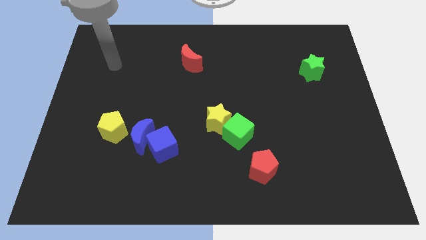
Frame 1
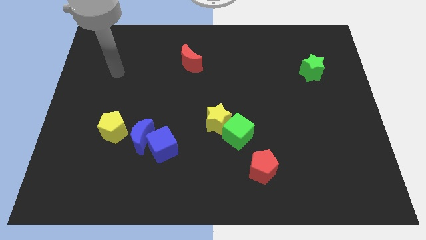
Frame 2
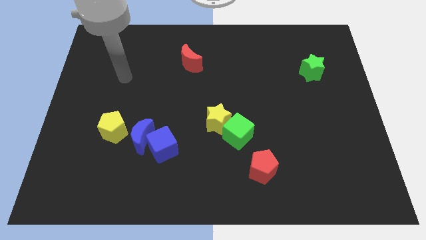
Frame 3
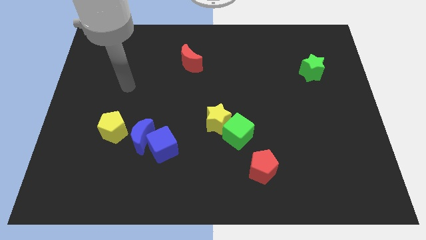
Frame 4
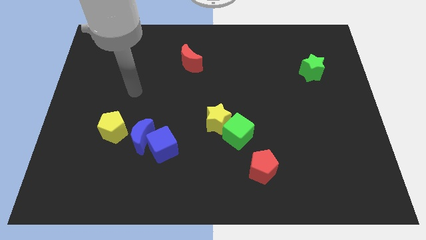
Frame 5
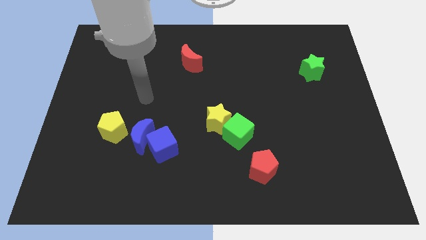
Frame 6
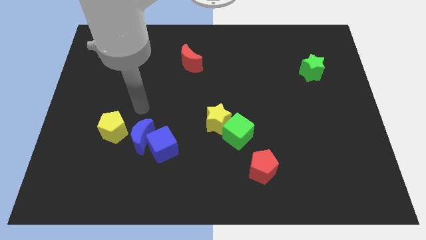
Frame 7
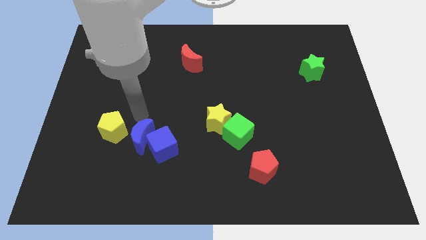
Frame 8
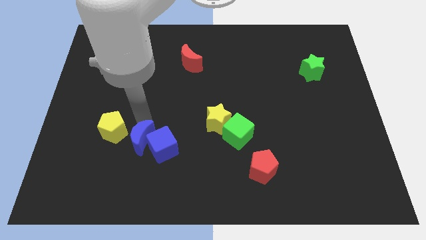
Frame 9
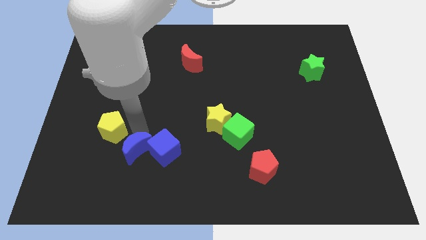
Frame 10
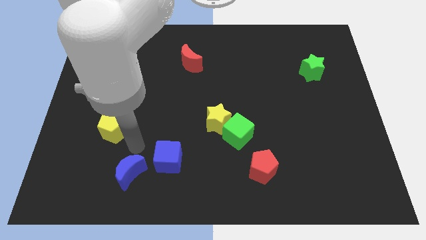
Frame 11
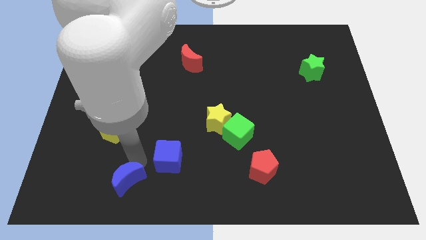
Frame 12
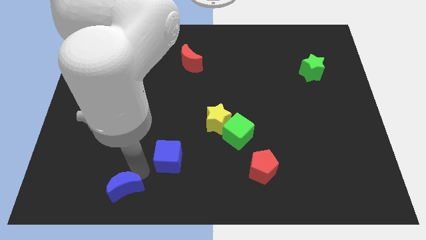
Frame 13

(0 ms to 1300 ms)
move the blue cube away from the blue moon

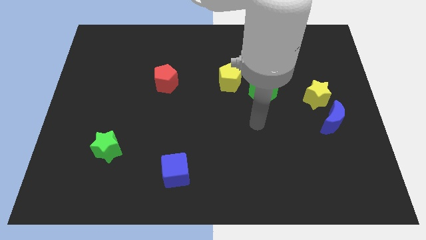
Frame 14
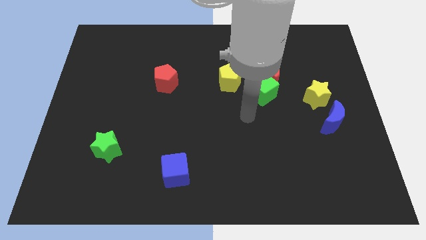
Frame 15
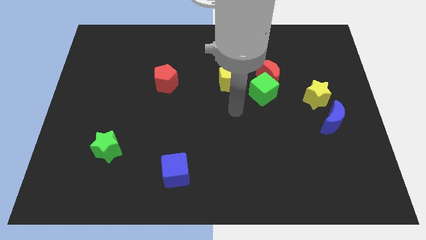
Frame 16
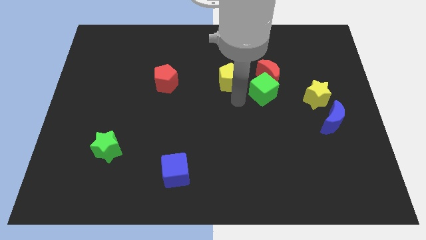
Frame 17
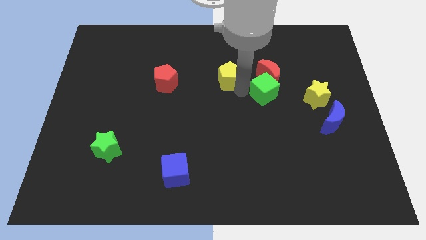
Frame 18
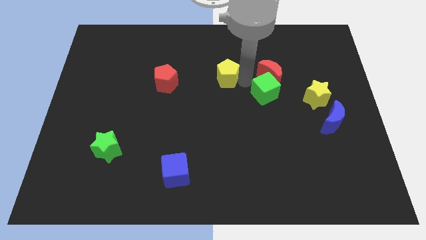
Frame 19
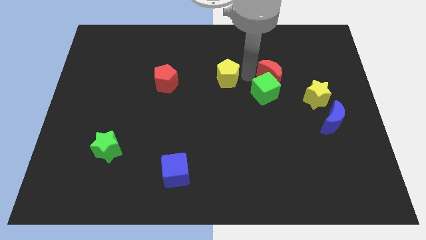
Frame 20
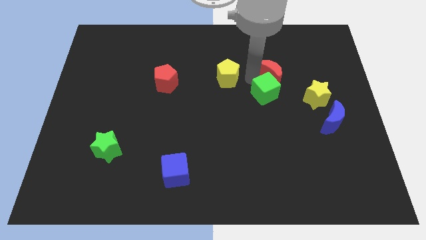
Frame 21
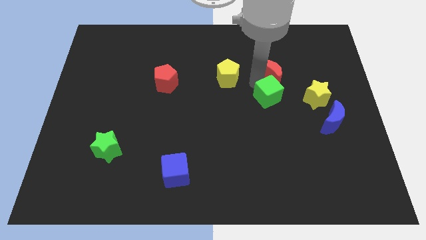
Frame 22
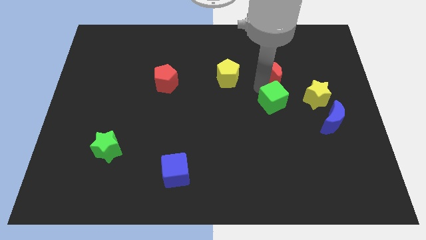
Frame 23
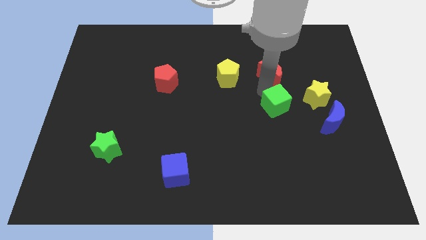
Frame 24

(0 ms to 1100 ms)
separate the green cube from the red moon and yellow pentagon

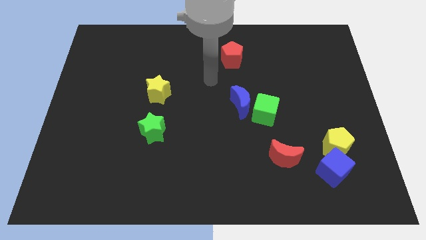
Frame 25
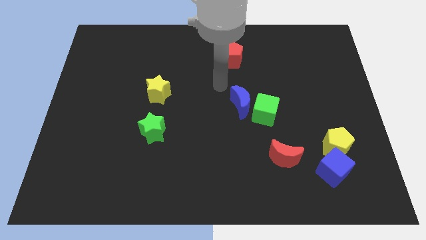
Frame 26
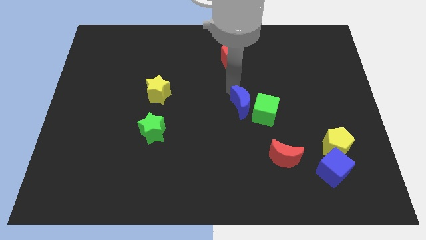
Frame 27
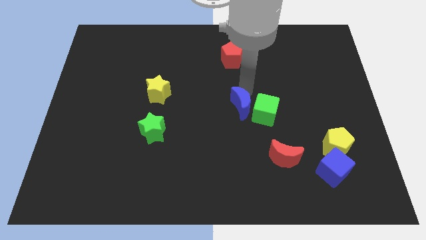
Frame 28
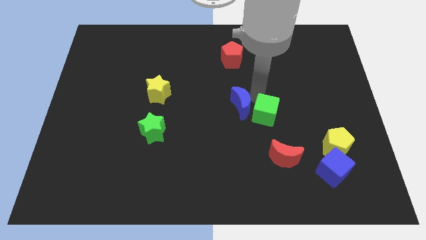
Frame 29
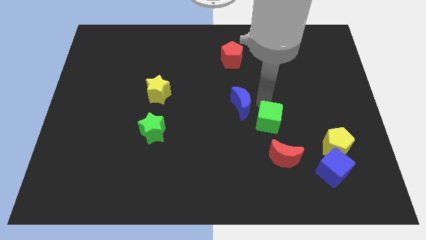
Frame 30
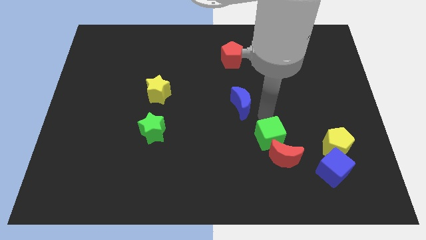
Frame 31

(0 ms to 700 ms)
separate the blue moon from the green cube

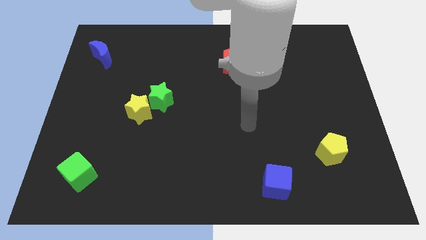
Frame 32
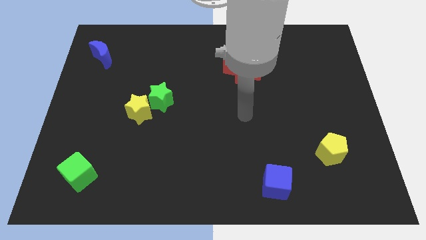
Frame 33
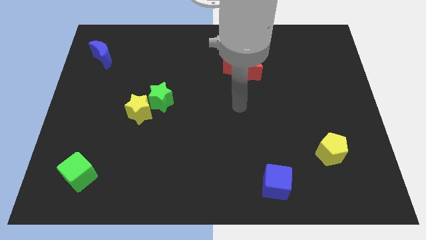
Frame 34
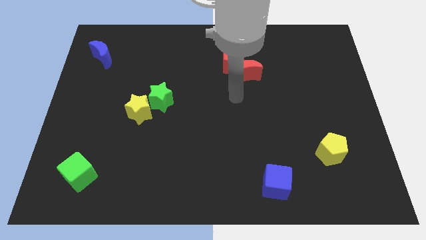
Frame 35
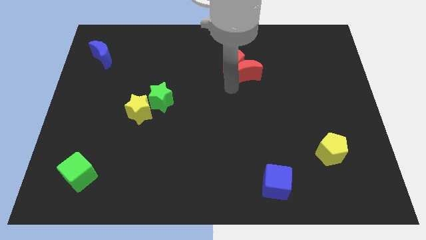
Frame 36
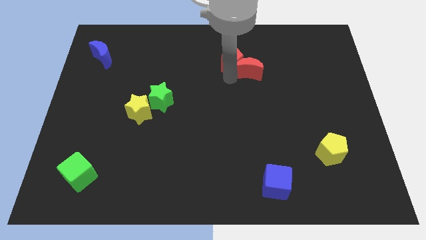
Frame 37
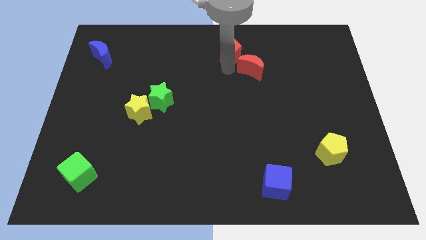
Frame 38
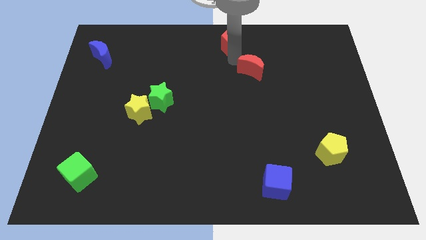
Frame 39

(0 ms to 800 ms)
separate the red moon from the red pentagon

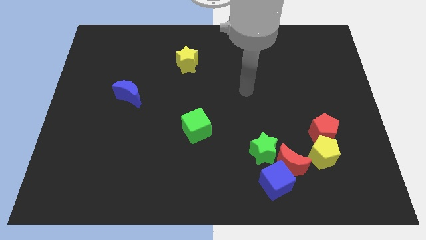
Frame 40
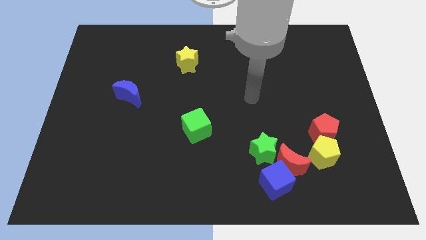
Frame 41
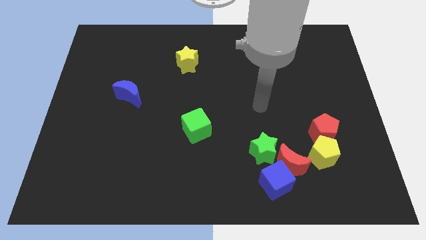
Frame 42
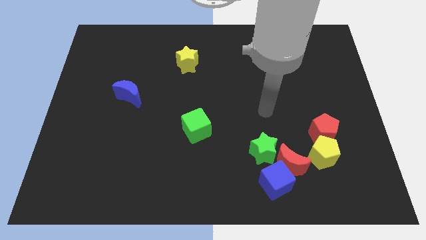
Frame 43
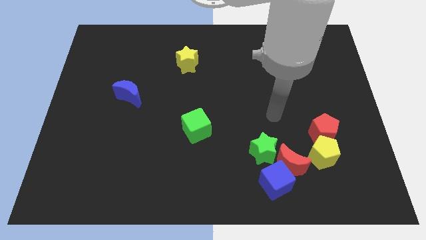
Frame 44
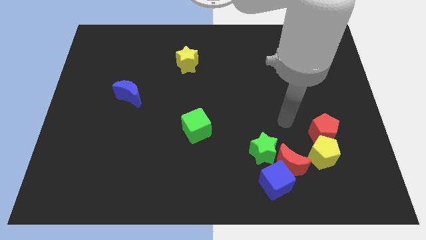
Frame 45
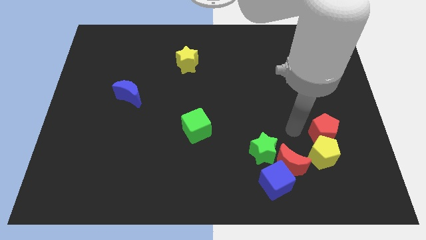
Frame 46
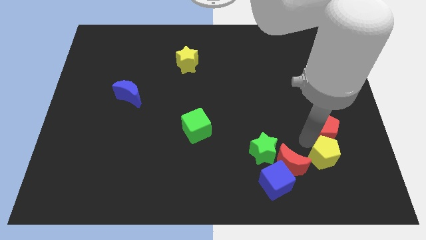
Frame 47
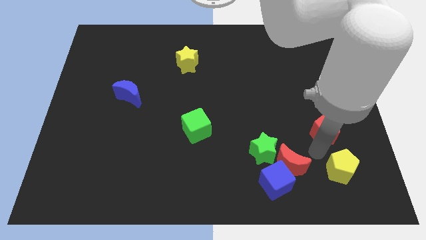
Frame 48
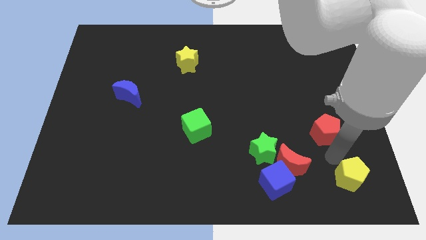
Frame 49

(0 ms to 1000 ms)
move the red pentagon away from the yellow pentagon

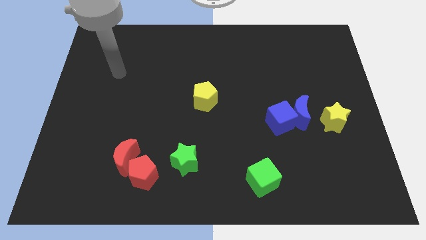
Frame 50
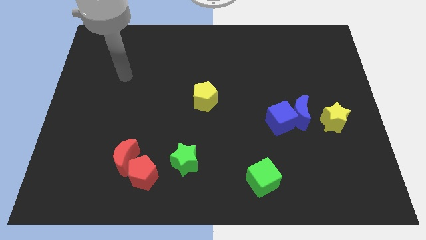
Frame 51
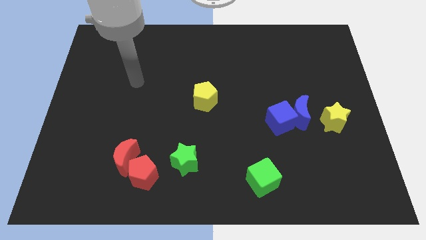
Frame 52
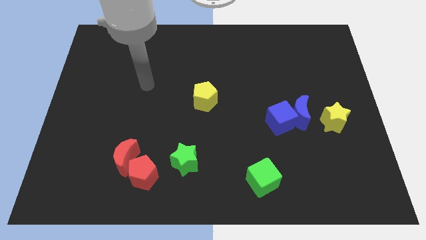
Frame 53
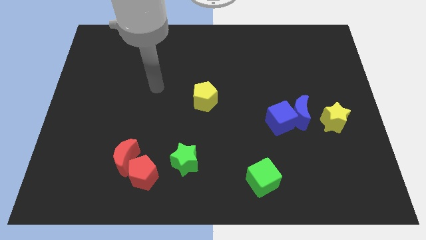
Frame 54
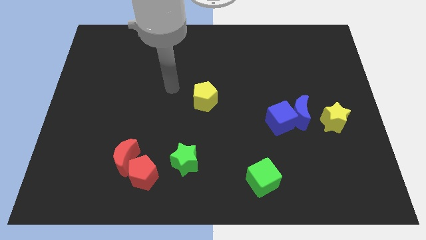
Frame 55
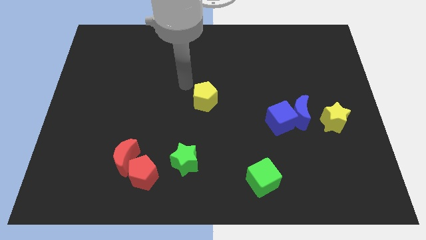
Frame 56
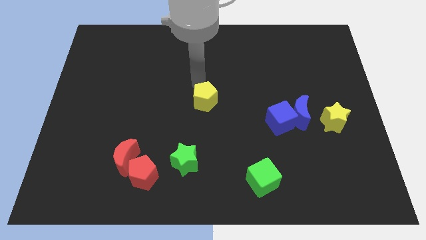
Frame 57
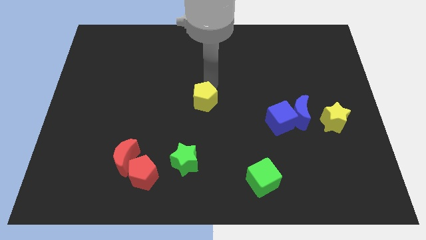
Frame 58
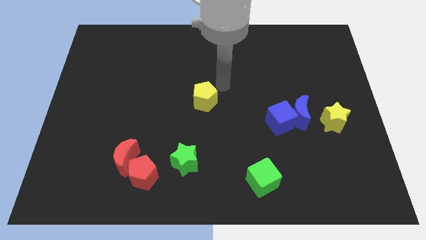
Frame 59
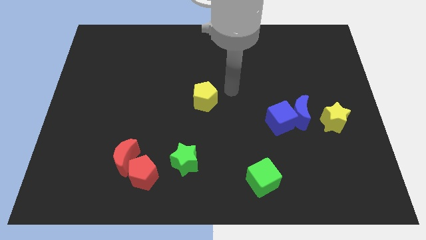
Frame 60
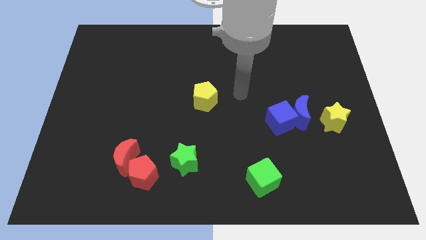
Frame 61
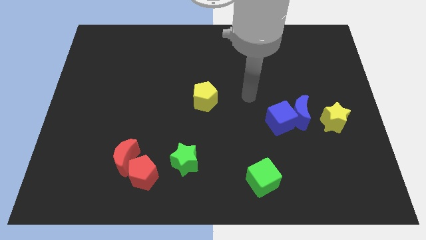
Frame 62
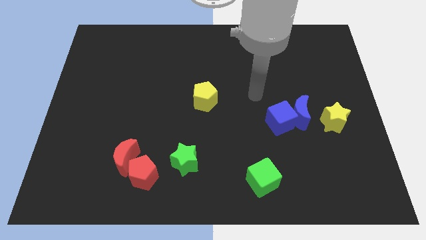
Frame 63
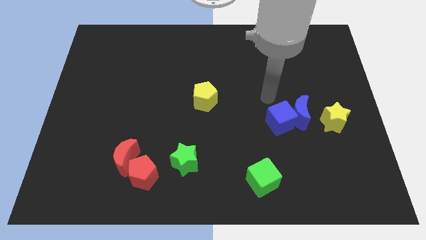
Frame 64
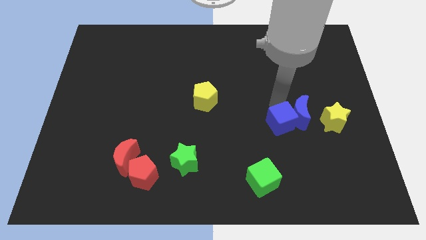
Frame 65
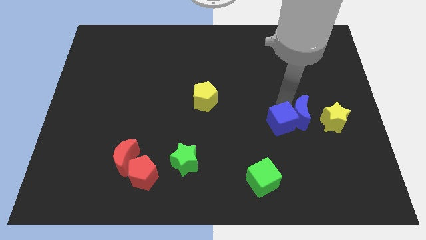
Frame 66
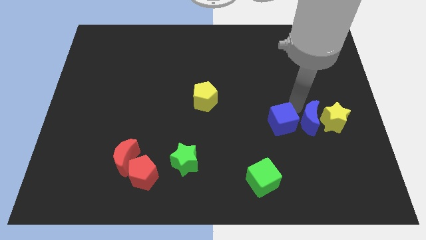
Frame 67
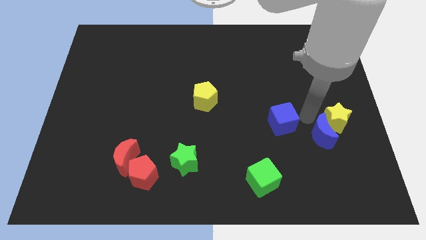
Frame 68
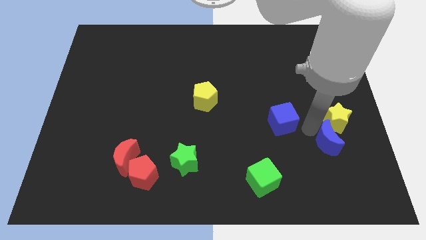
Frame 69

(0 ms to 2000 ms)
pull the blue cube apart from the blue moon

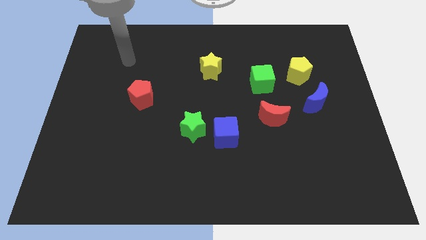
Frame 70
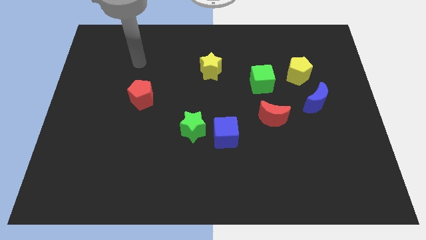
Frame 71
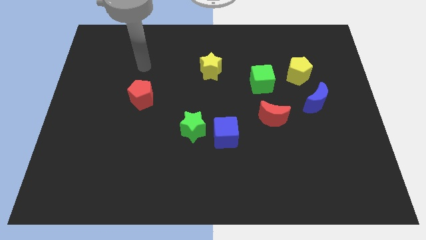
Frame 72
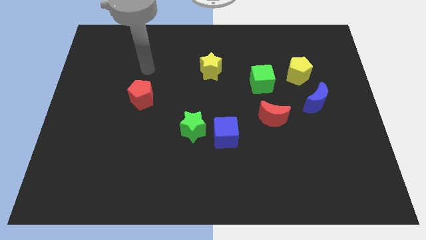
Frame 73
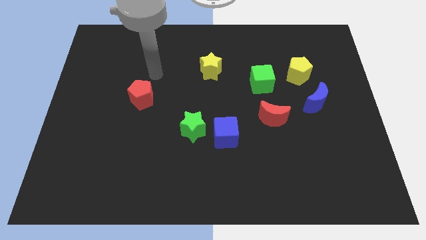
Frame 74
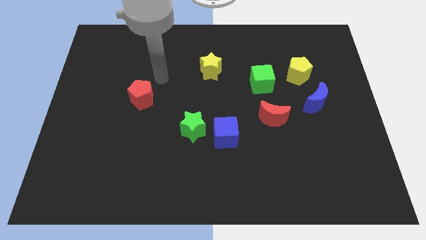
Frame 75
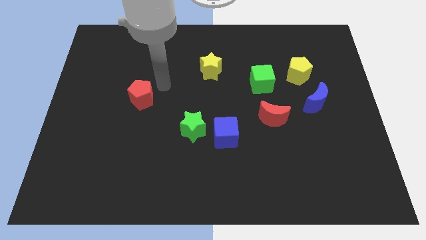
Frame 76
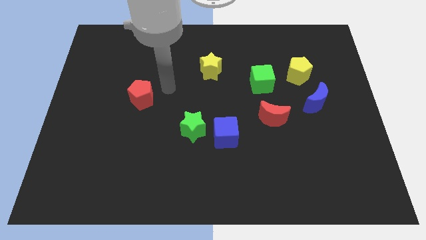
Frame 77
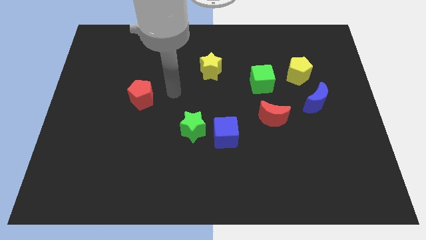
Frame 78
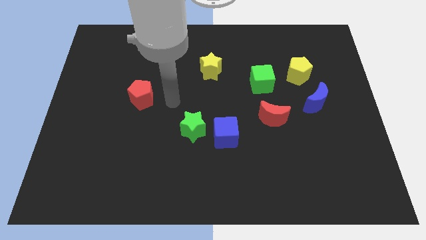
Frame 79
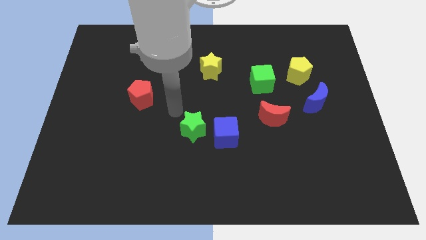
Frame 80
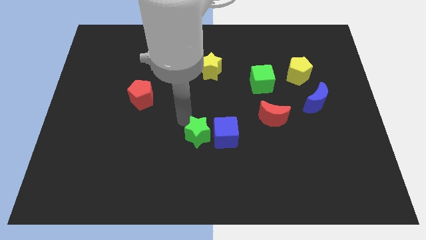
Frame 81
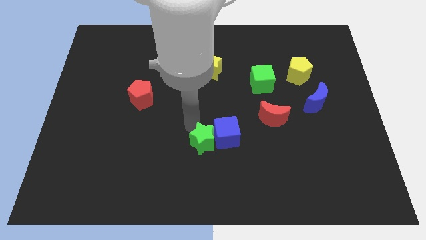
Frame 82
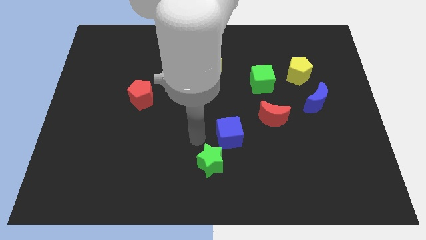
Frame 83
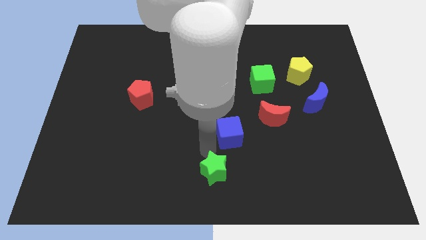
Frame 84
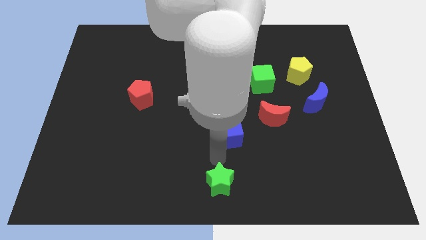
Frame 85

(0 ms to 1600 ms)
pull the blue cube apart from the green star

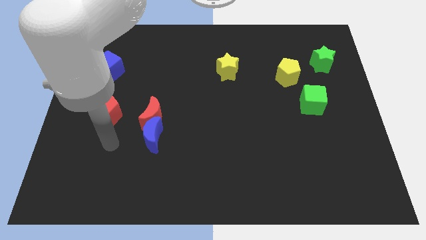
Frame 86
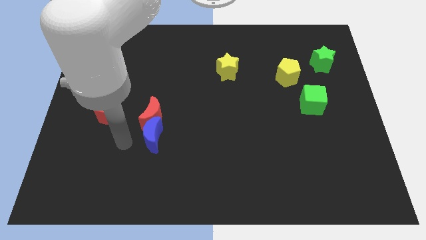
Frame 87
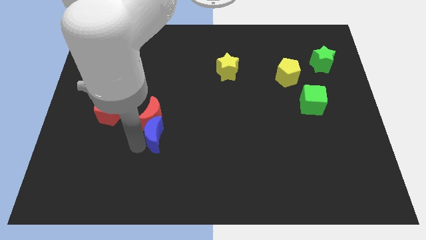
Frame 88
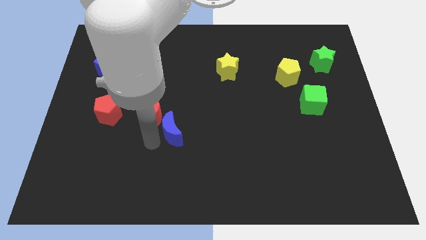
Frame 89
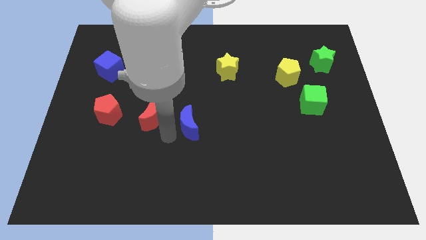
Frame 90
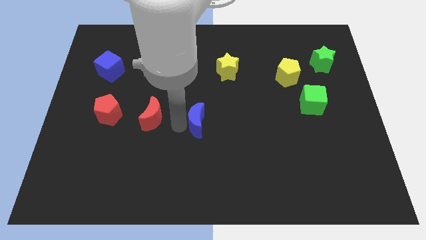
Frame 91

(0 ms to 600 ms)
pull the red moon apart from the blue moon
